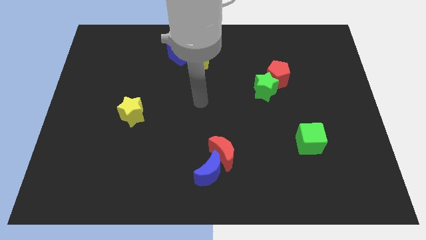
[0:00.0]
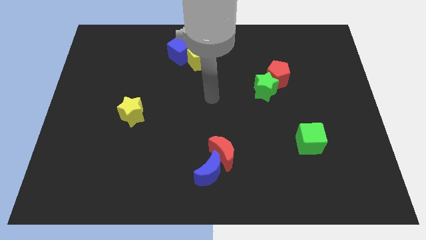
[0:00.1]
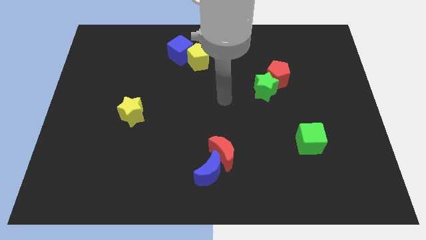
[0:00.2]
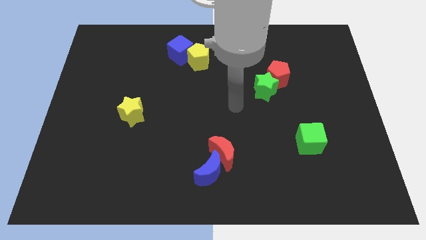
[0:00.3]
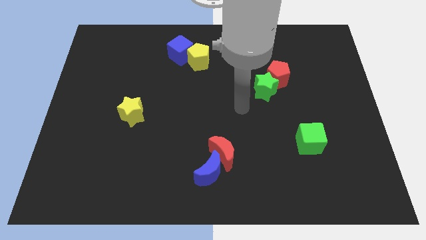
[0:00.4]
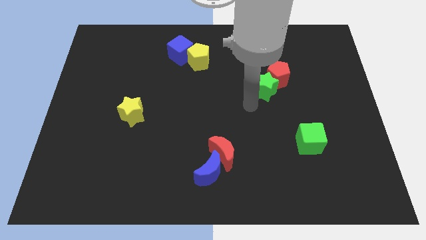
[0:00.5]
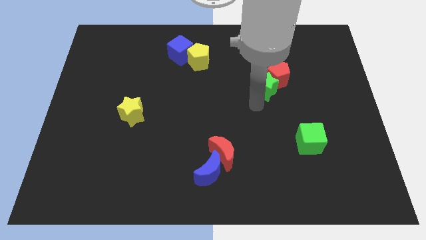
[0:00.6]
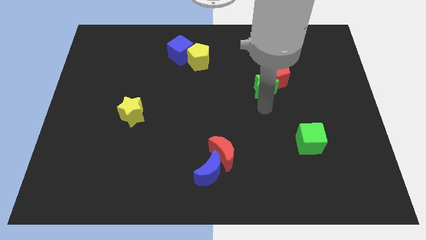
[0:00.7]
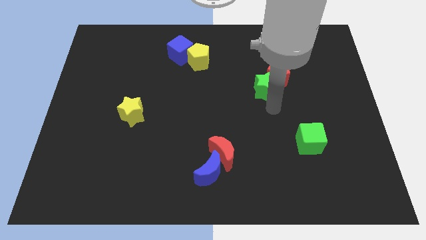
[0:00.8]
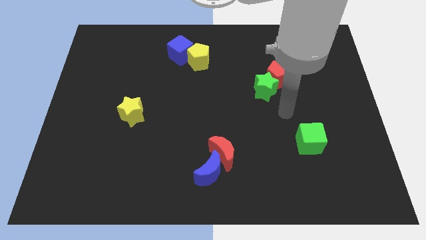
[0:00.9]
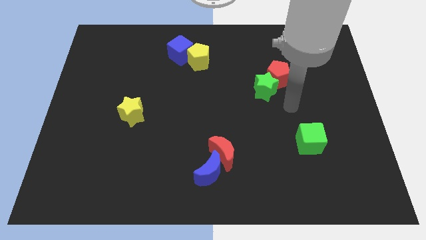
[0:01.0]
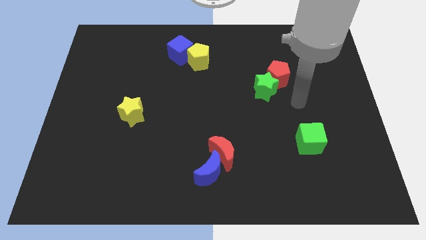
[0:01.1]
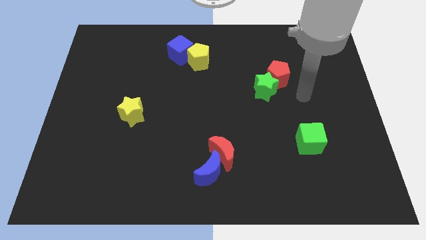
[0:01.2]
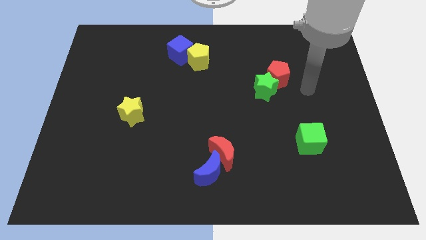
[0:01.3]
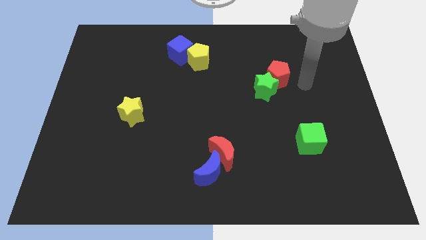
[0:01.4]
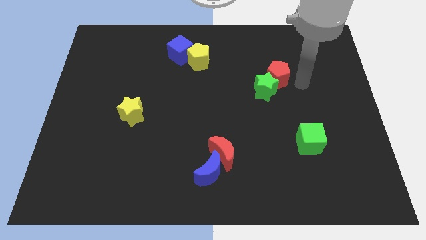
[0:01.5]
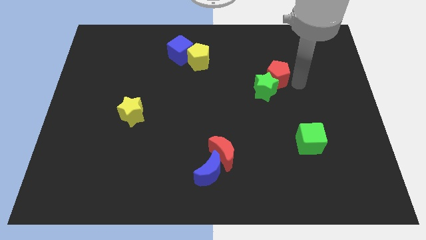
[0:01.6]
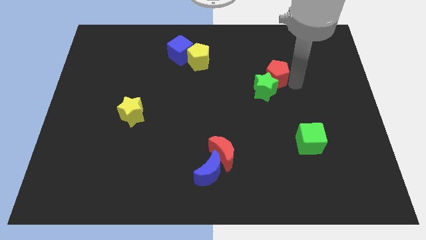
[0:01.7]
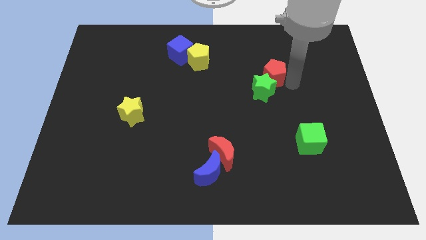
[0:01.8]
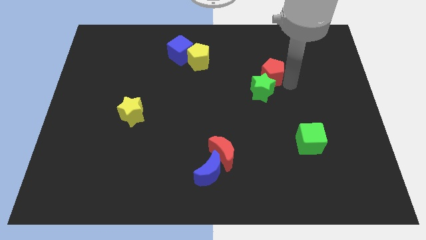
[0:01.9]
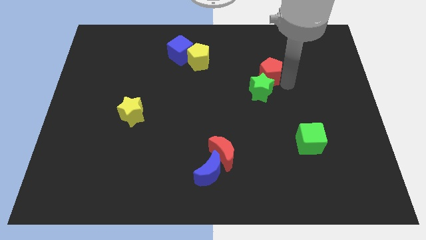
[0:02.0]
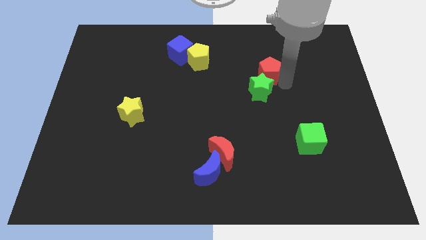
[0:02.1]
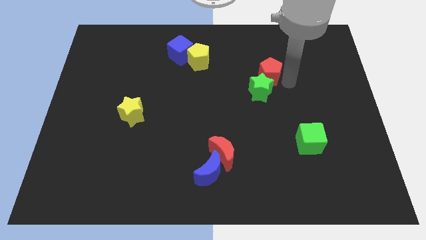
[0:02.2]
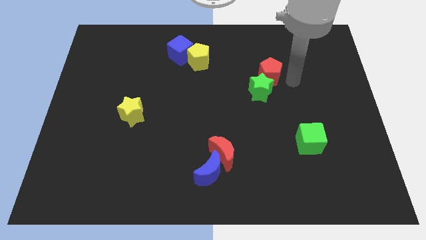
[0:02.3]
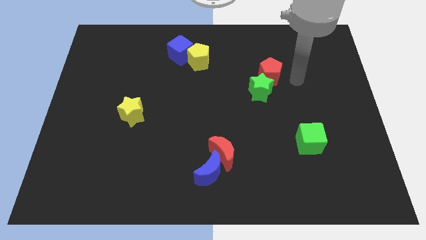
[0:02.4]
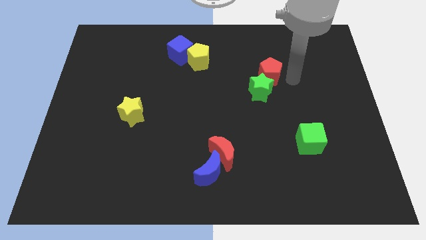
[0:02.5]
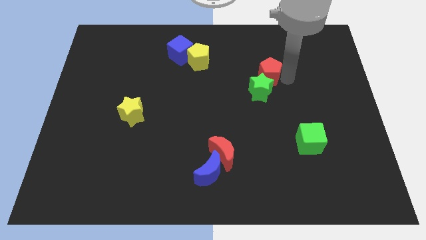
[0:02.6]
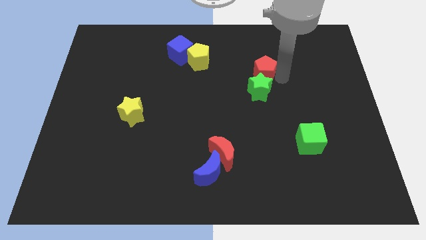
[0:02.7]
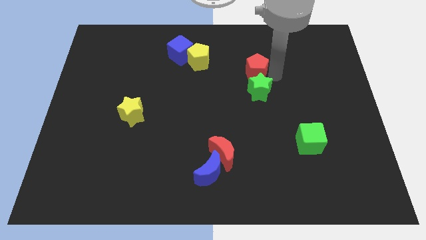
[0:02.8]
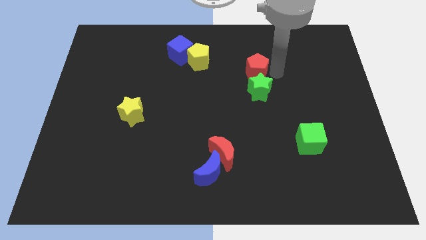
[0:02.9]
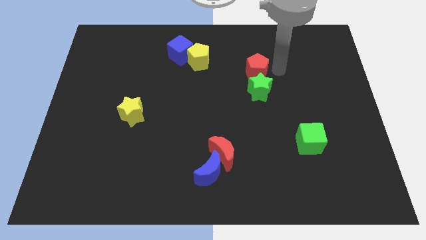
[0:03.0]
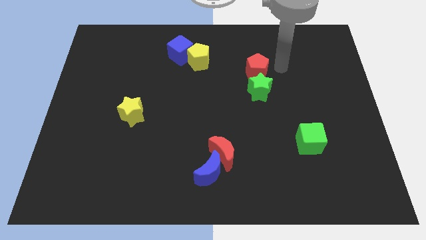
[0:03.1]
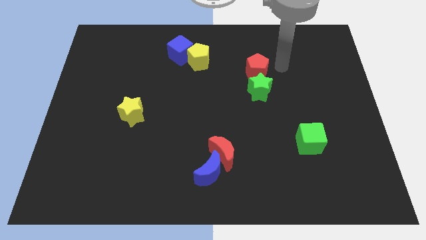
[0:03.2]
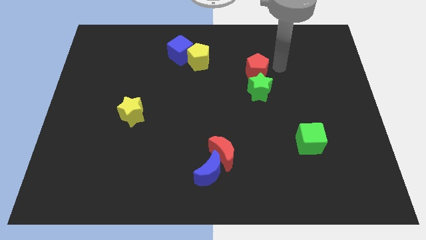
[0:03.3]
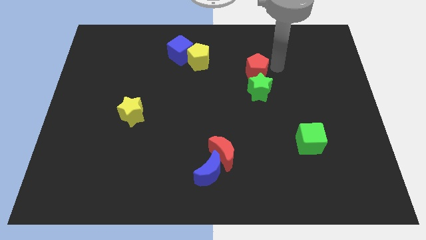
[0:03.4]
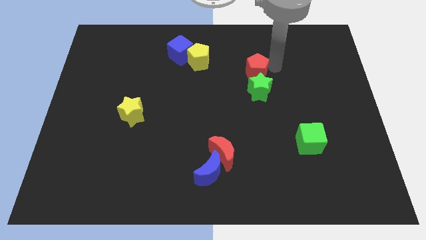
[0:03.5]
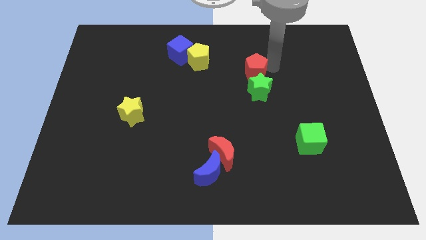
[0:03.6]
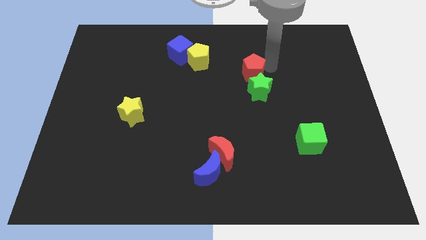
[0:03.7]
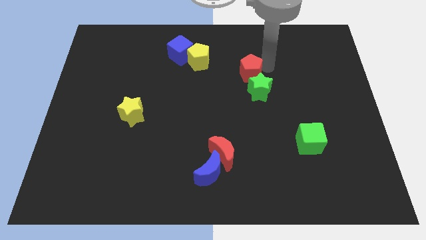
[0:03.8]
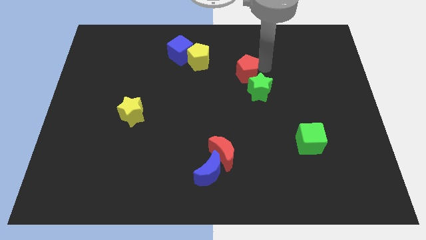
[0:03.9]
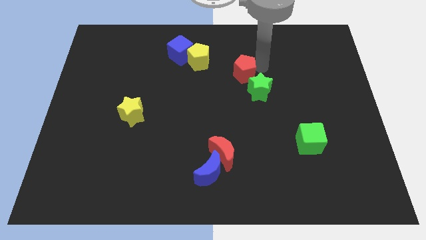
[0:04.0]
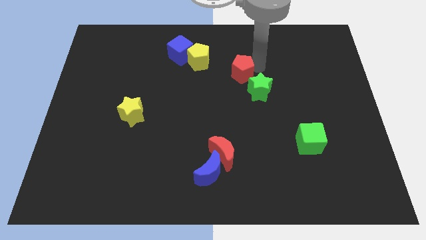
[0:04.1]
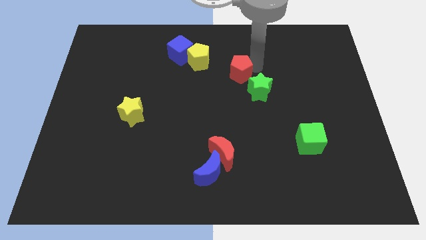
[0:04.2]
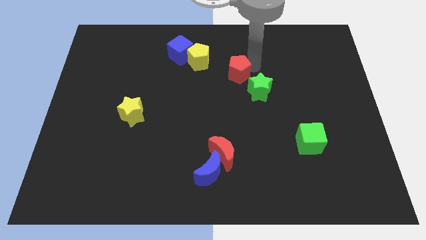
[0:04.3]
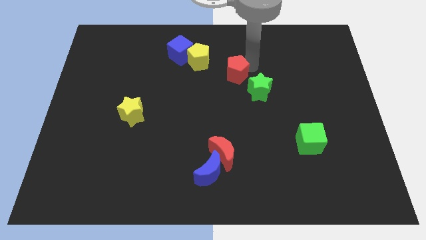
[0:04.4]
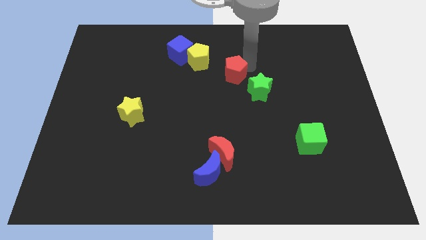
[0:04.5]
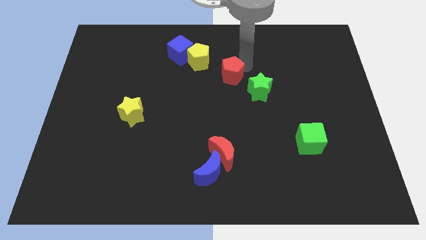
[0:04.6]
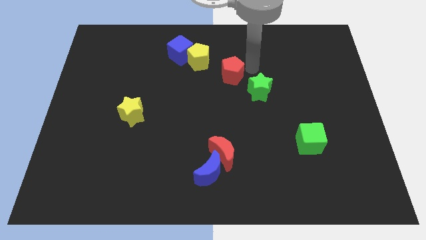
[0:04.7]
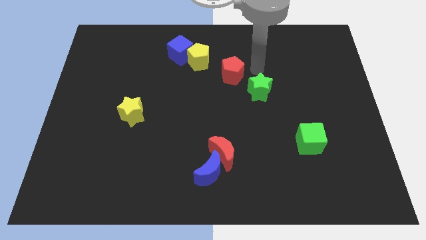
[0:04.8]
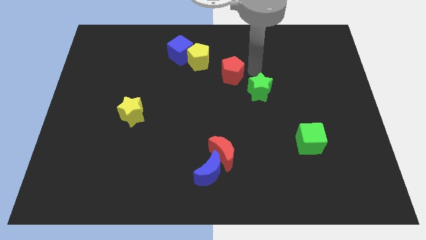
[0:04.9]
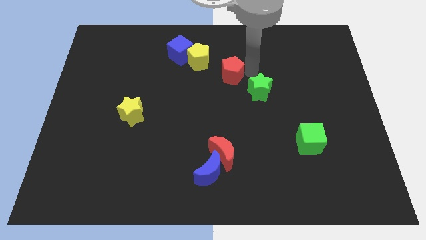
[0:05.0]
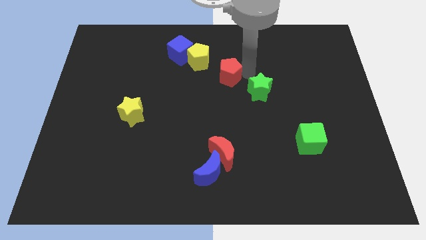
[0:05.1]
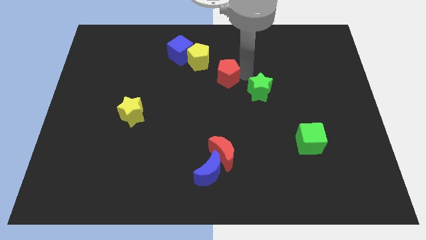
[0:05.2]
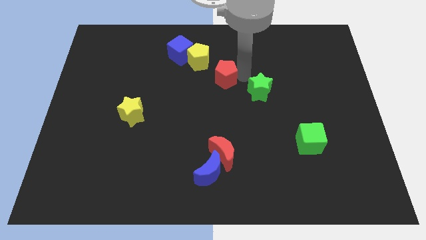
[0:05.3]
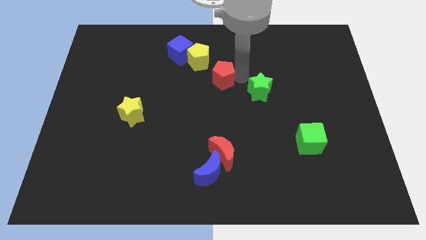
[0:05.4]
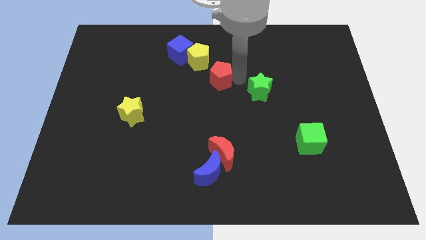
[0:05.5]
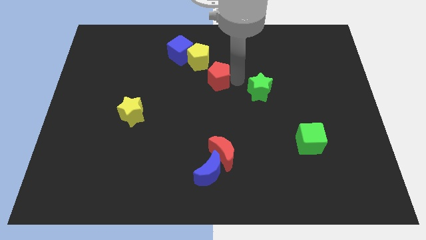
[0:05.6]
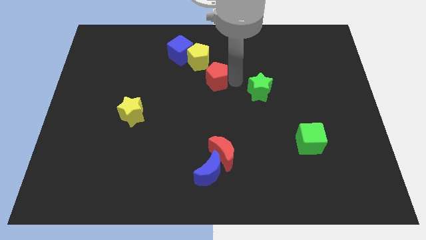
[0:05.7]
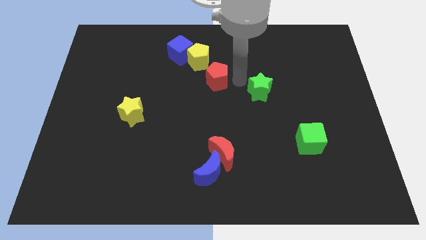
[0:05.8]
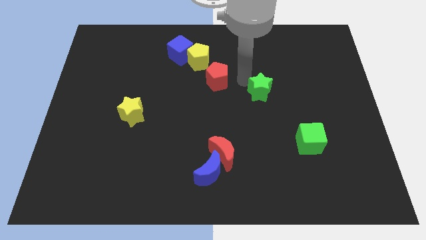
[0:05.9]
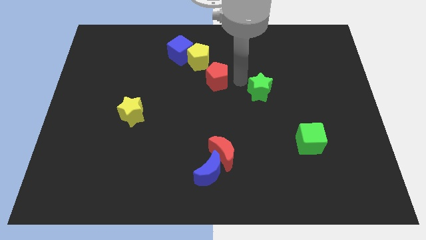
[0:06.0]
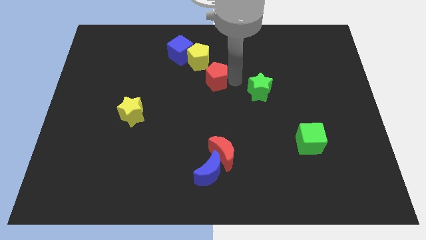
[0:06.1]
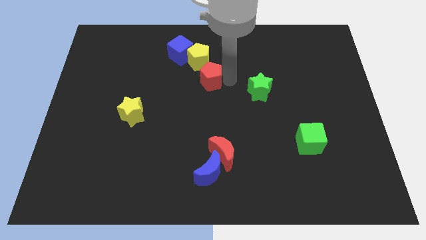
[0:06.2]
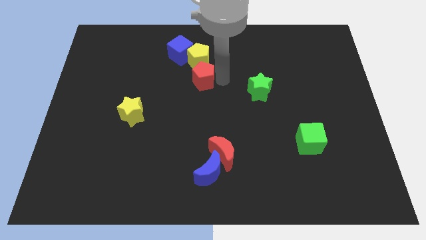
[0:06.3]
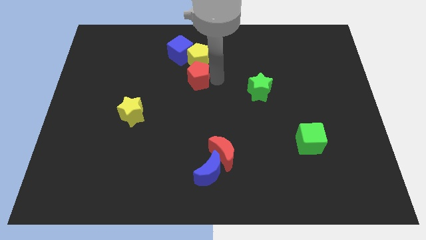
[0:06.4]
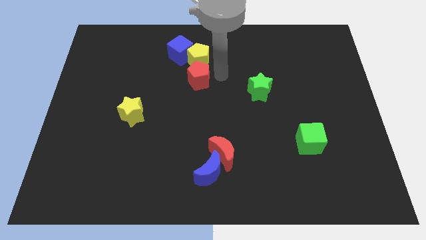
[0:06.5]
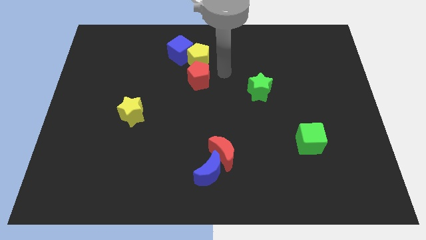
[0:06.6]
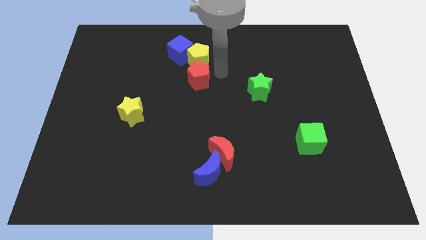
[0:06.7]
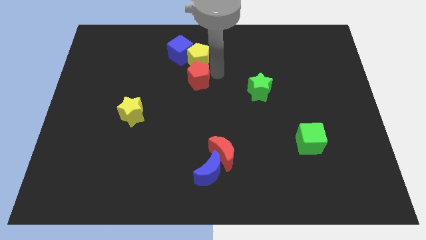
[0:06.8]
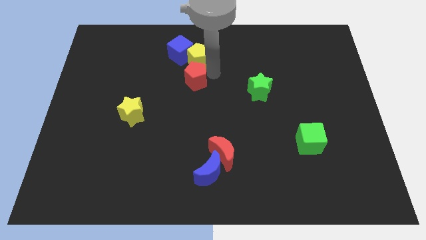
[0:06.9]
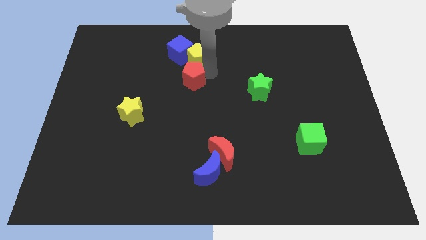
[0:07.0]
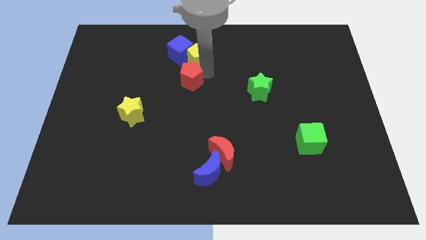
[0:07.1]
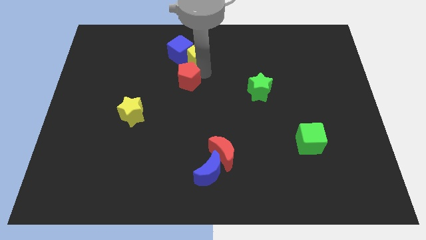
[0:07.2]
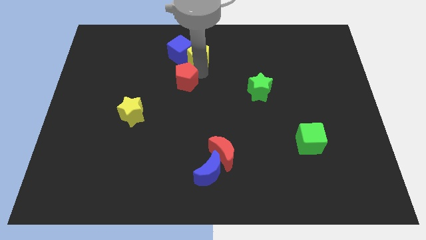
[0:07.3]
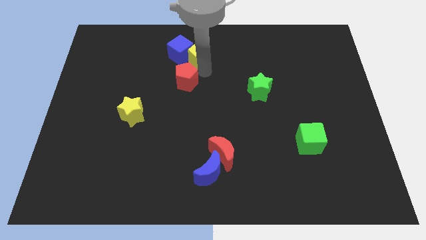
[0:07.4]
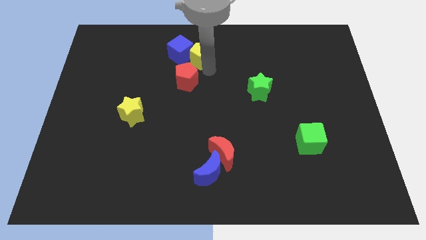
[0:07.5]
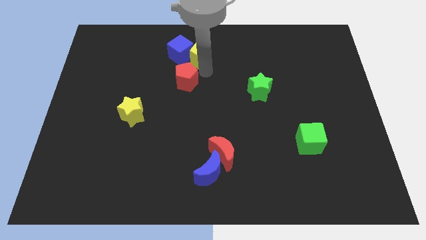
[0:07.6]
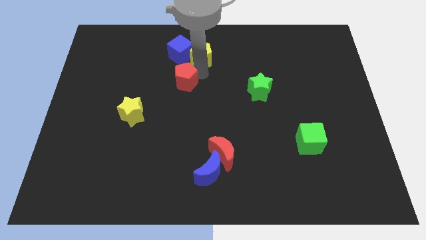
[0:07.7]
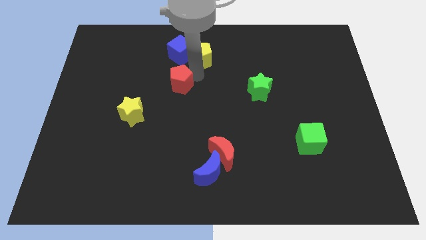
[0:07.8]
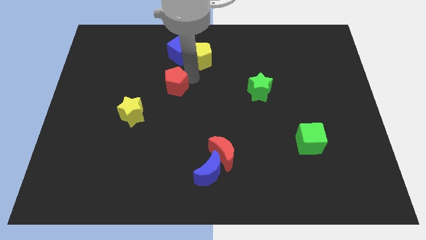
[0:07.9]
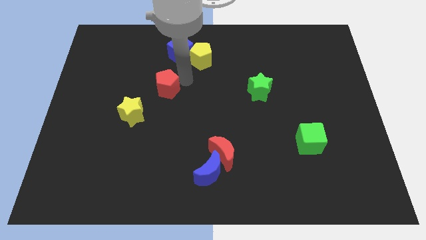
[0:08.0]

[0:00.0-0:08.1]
move the red pentagon to the top right side of the yellow star
